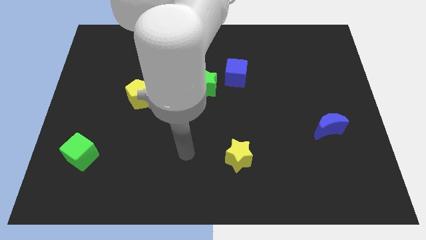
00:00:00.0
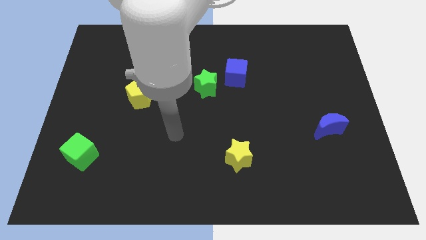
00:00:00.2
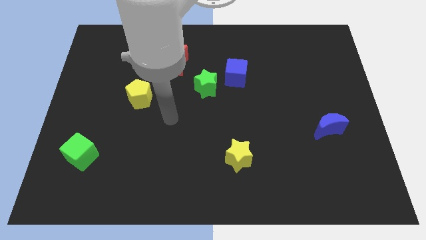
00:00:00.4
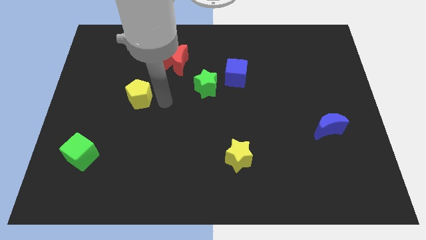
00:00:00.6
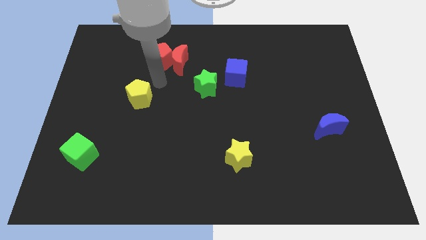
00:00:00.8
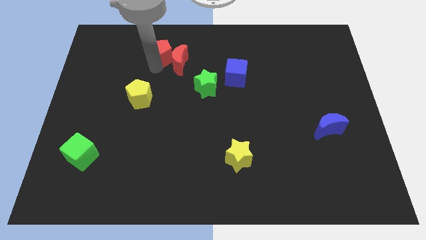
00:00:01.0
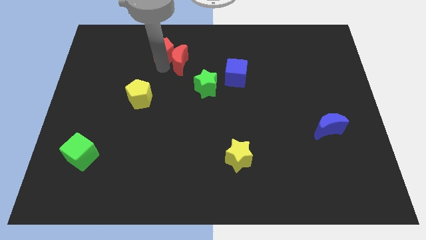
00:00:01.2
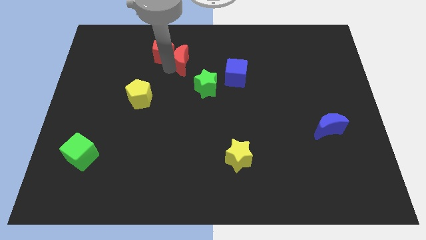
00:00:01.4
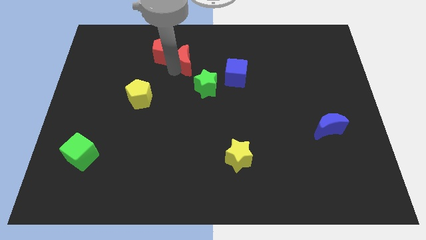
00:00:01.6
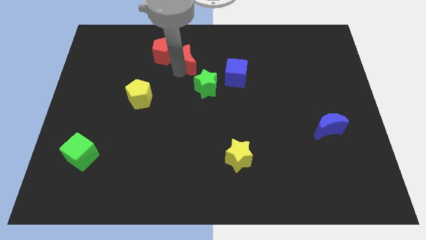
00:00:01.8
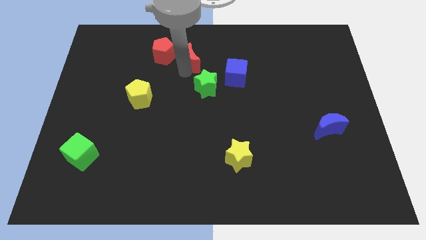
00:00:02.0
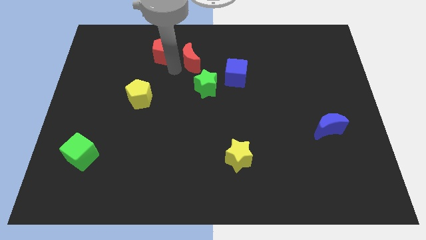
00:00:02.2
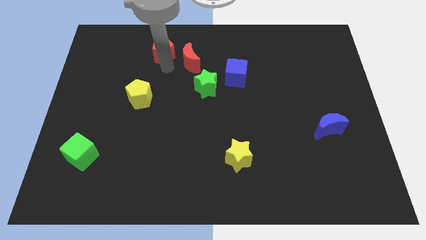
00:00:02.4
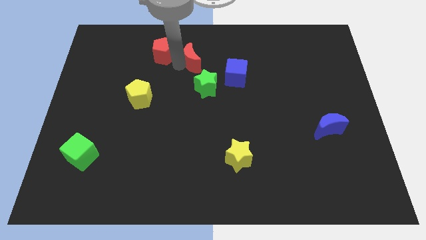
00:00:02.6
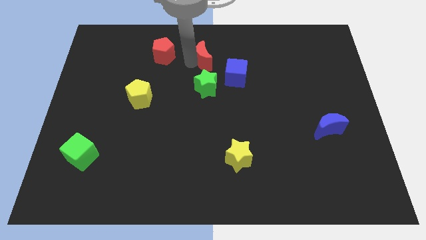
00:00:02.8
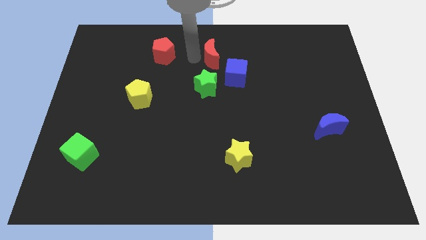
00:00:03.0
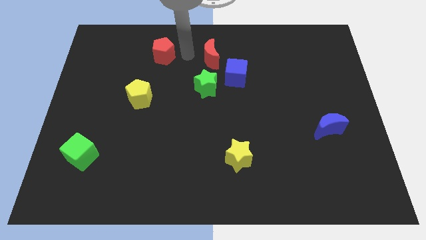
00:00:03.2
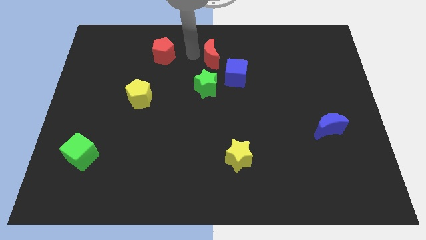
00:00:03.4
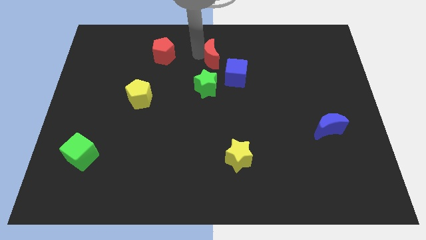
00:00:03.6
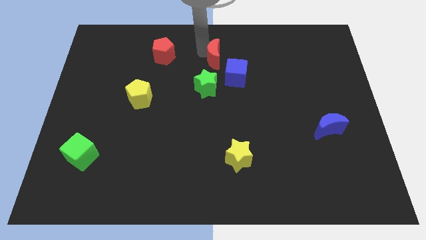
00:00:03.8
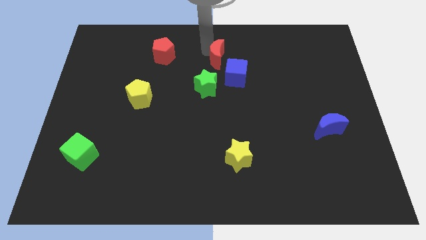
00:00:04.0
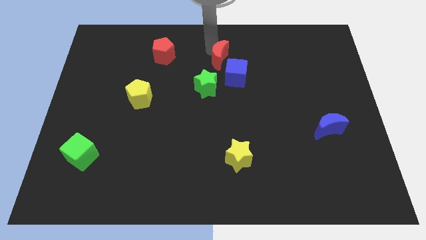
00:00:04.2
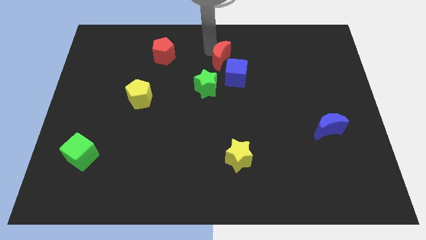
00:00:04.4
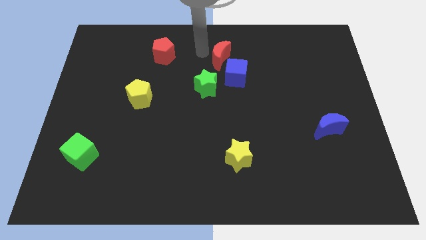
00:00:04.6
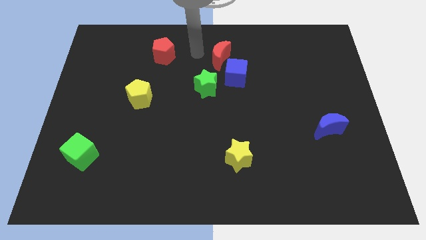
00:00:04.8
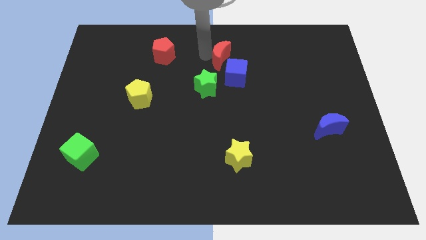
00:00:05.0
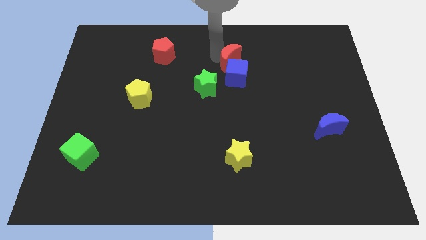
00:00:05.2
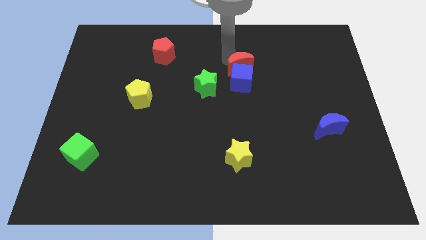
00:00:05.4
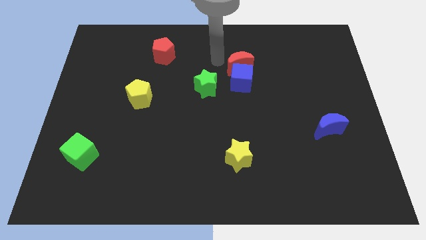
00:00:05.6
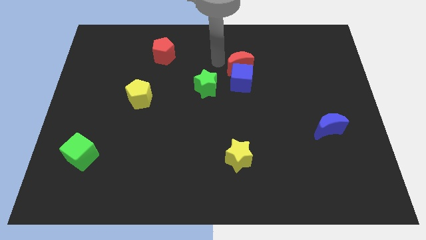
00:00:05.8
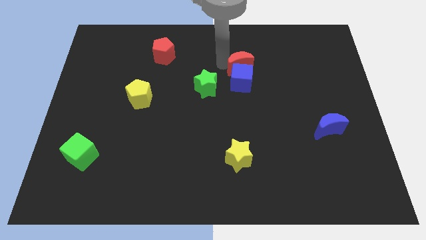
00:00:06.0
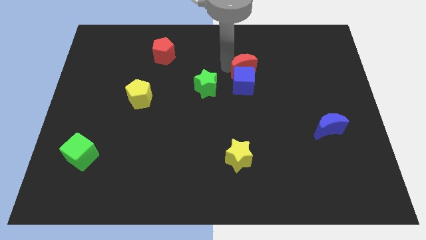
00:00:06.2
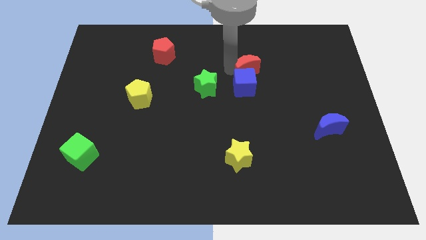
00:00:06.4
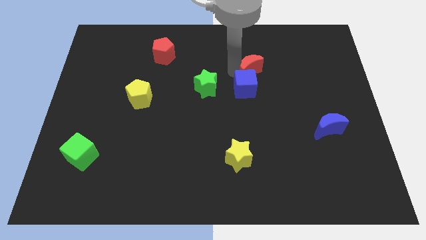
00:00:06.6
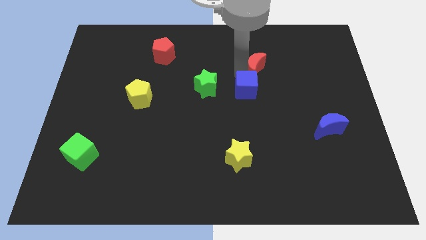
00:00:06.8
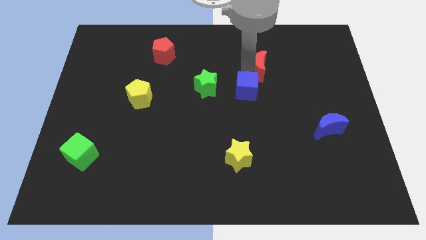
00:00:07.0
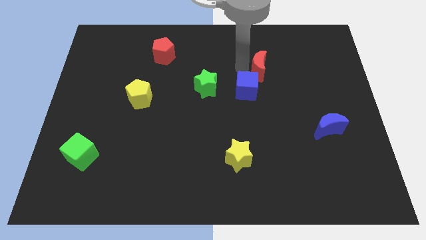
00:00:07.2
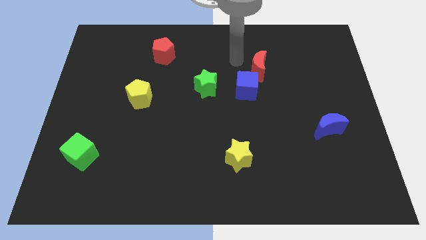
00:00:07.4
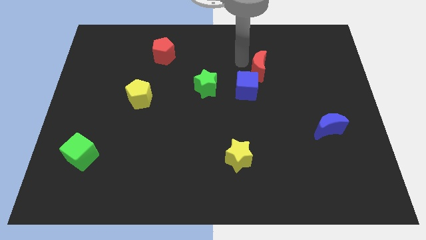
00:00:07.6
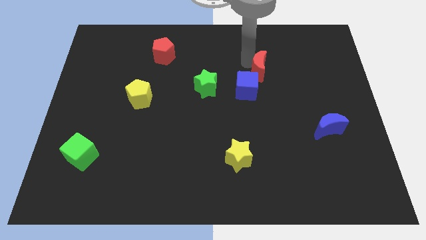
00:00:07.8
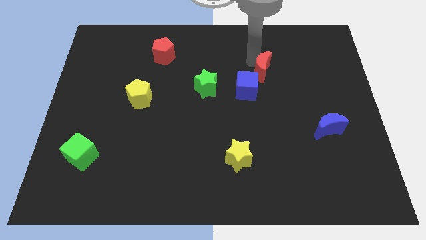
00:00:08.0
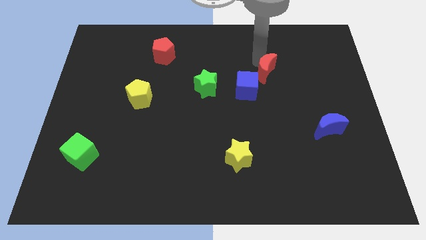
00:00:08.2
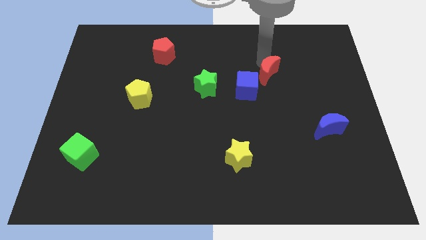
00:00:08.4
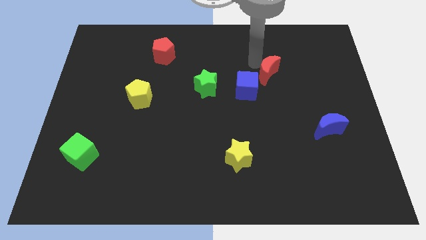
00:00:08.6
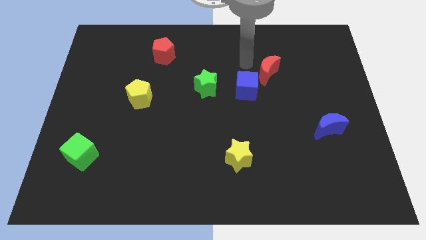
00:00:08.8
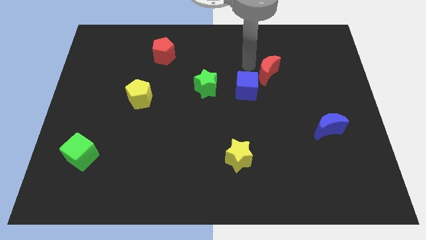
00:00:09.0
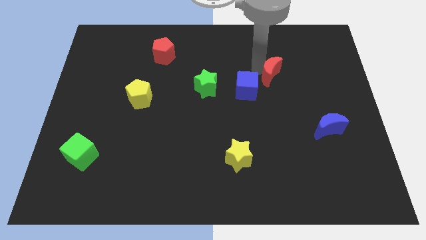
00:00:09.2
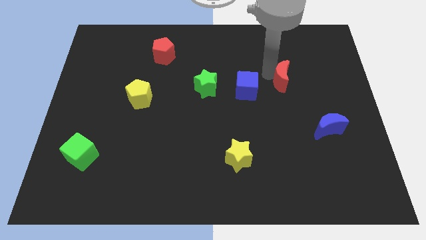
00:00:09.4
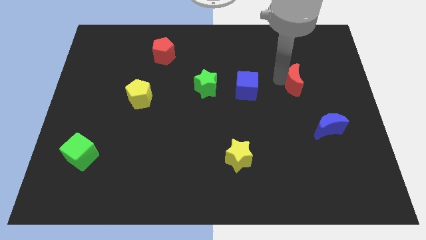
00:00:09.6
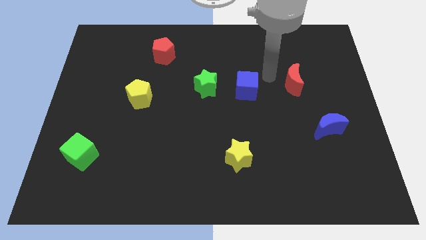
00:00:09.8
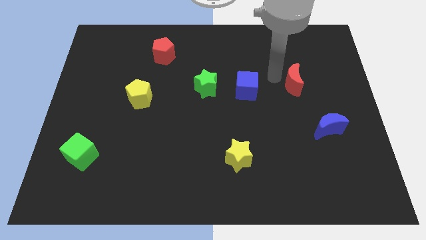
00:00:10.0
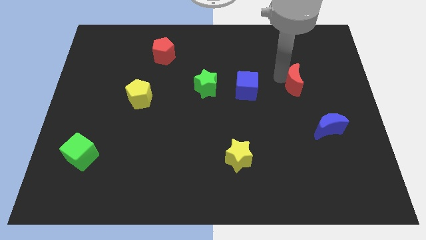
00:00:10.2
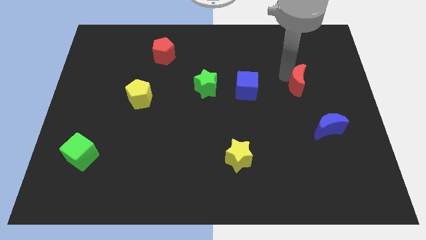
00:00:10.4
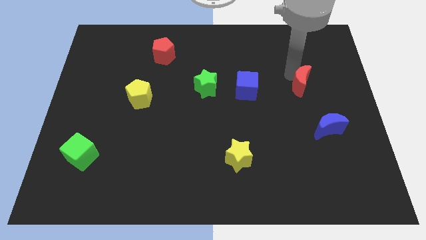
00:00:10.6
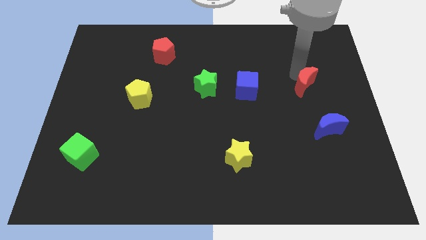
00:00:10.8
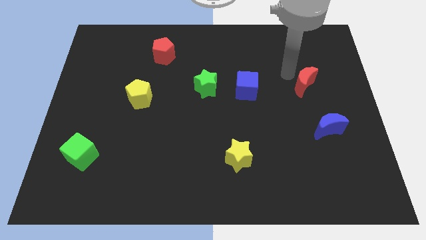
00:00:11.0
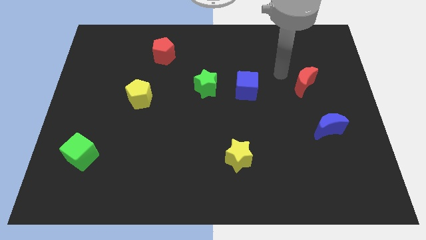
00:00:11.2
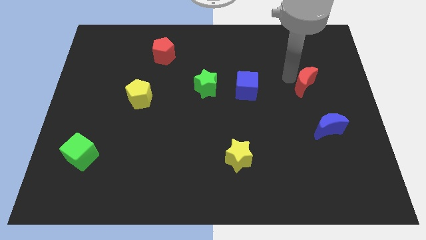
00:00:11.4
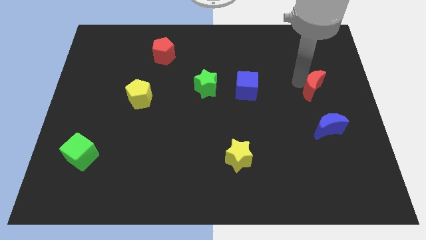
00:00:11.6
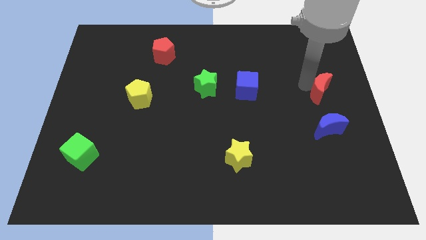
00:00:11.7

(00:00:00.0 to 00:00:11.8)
move the red moon to the center right

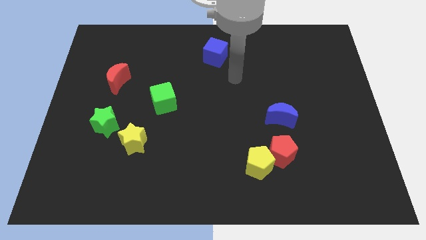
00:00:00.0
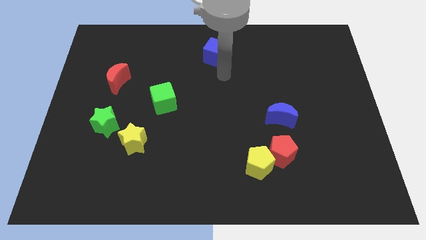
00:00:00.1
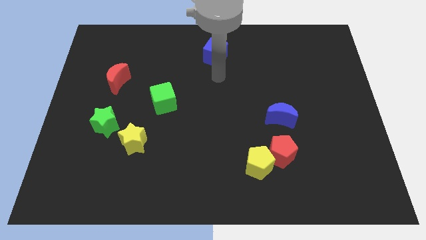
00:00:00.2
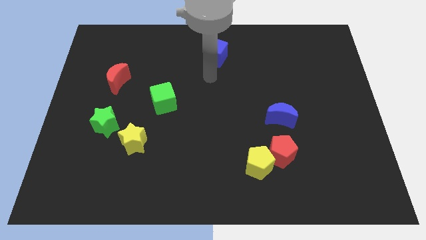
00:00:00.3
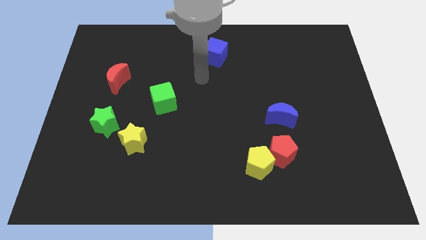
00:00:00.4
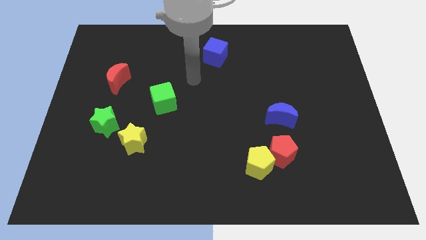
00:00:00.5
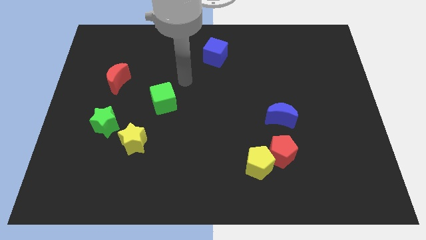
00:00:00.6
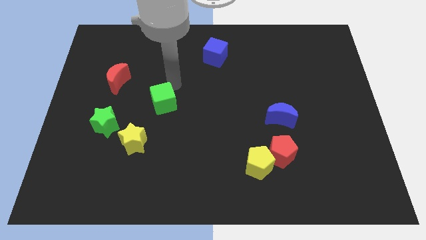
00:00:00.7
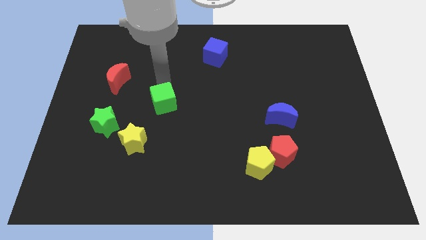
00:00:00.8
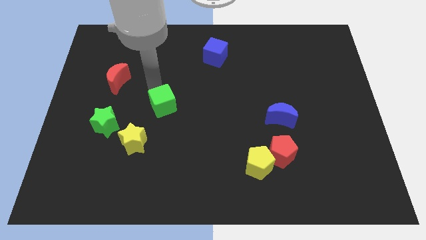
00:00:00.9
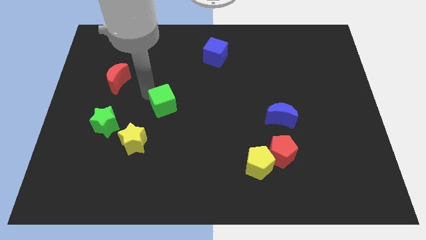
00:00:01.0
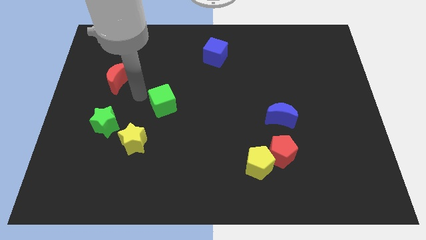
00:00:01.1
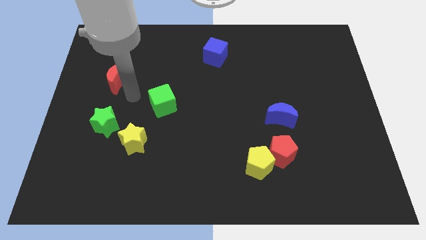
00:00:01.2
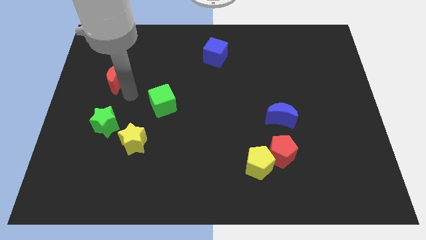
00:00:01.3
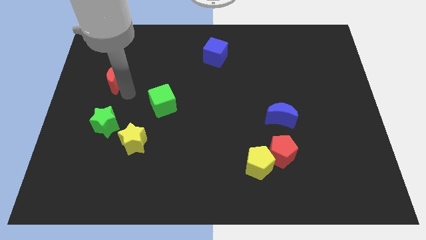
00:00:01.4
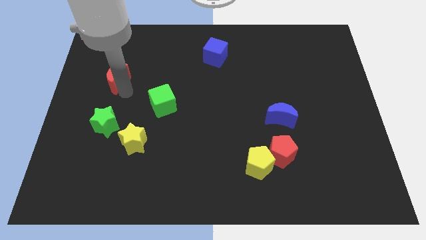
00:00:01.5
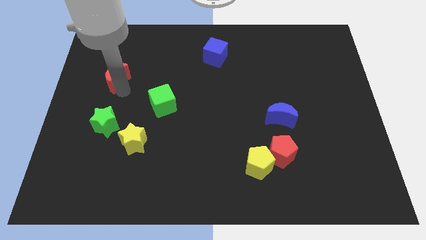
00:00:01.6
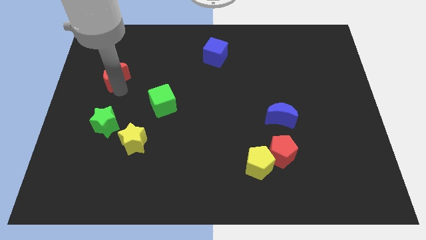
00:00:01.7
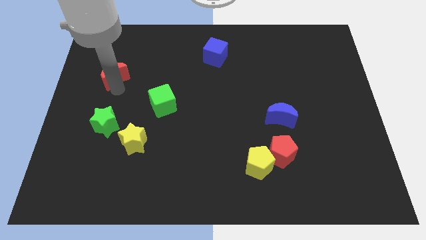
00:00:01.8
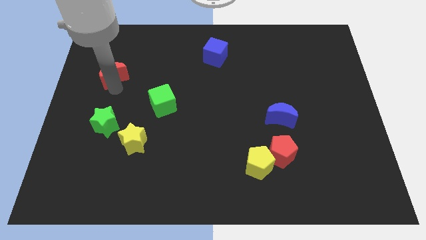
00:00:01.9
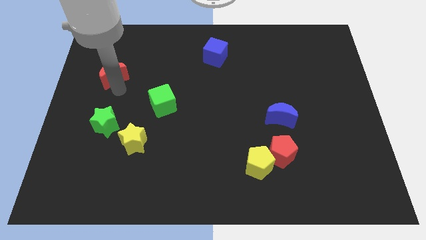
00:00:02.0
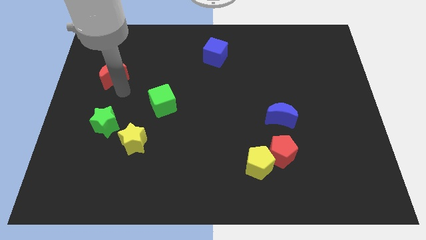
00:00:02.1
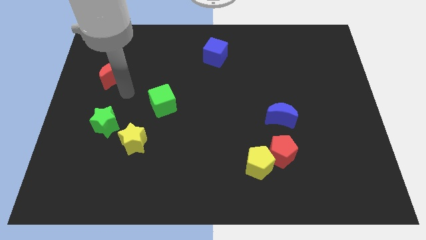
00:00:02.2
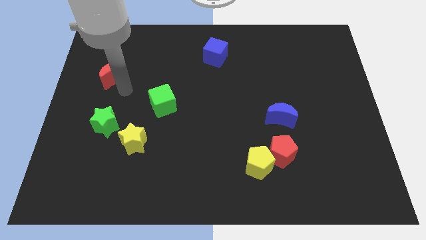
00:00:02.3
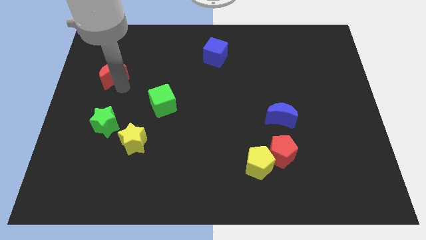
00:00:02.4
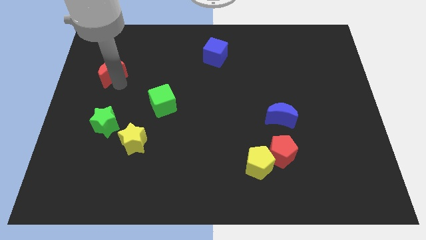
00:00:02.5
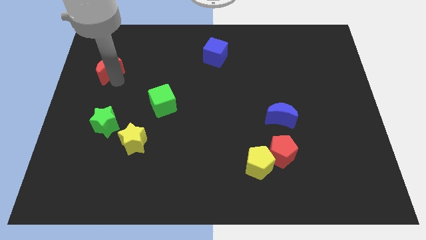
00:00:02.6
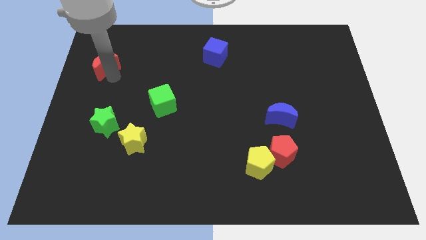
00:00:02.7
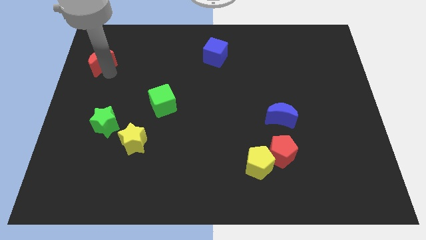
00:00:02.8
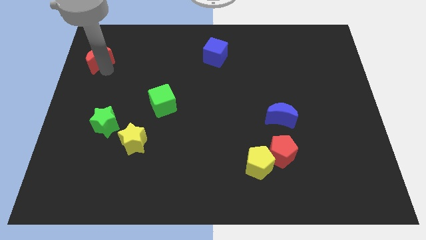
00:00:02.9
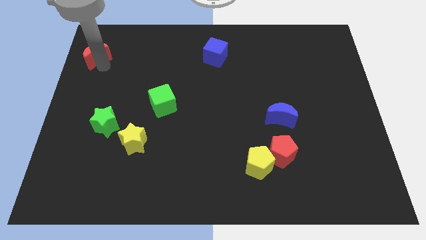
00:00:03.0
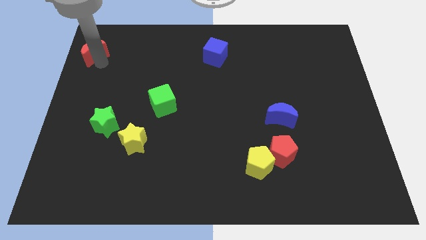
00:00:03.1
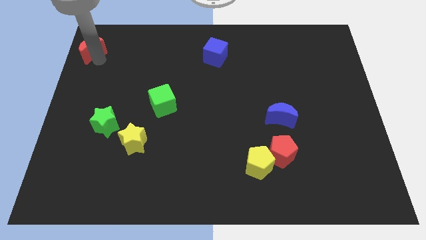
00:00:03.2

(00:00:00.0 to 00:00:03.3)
push the red moon to the top left of the board
